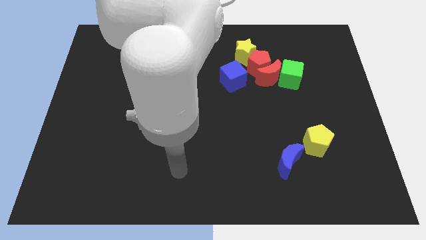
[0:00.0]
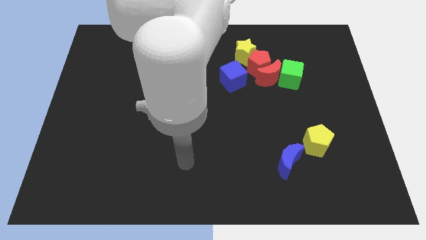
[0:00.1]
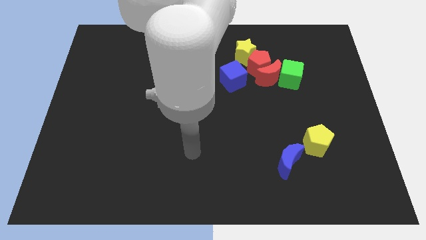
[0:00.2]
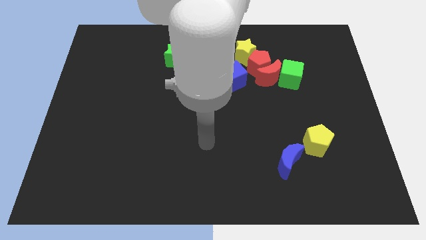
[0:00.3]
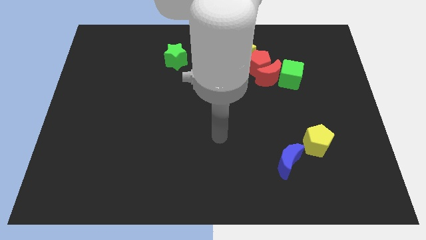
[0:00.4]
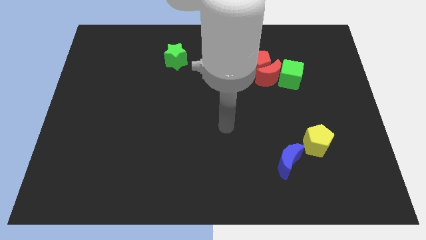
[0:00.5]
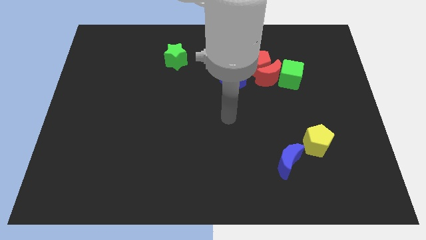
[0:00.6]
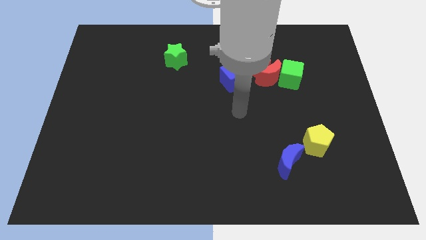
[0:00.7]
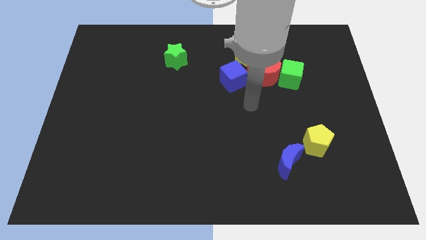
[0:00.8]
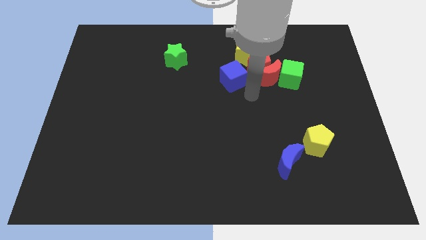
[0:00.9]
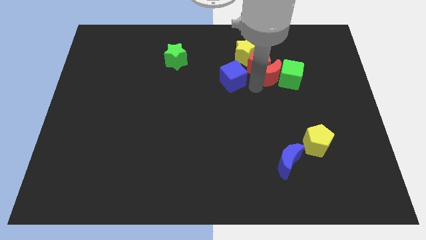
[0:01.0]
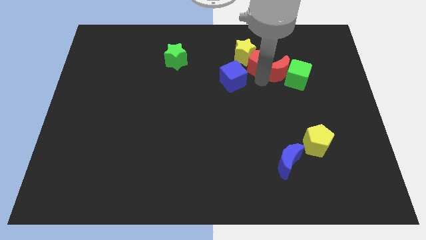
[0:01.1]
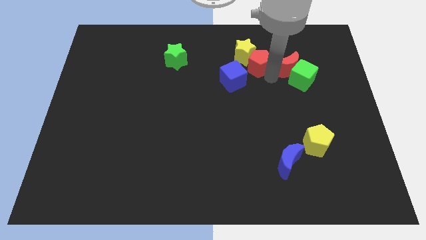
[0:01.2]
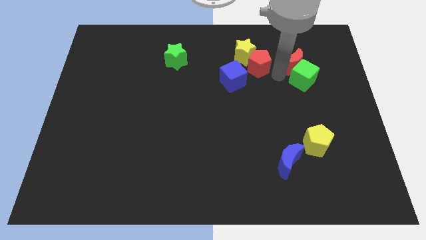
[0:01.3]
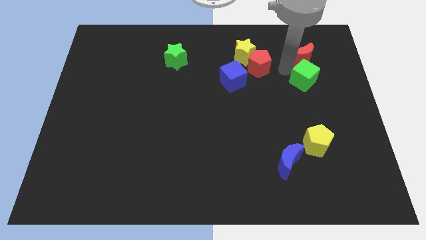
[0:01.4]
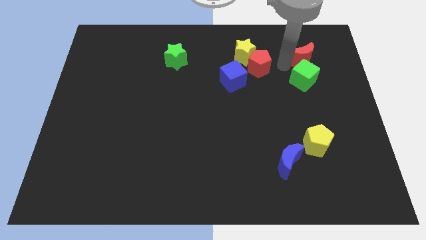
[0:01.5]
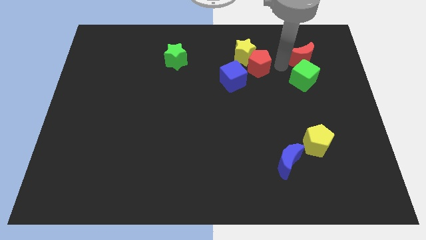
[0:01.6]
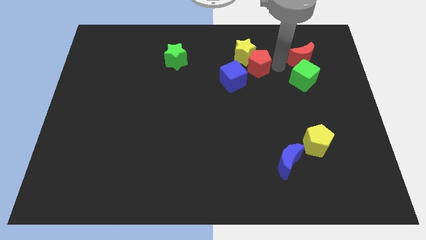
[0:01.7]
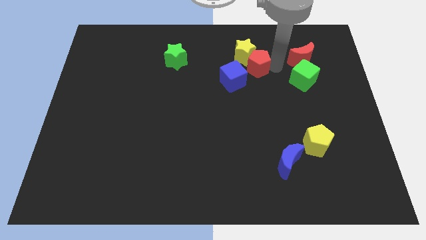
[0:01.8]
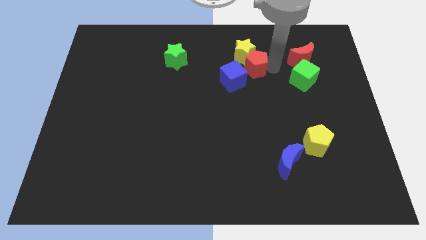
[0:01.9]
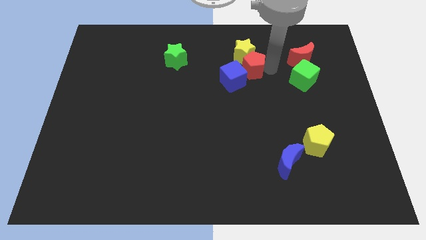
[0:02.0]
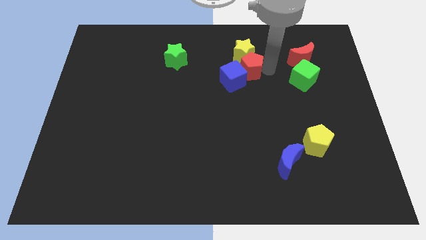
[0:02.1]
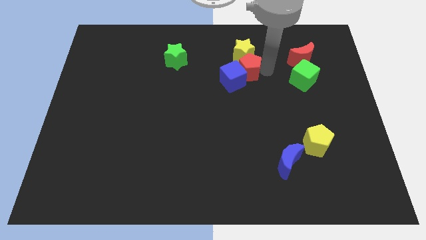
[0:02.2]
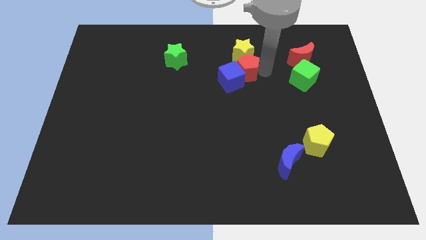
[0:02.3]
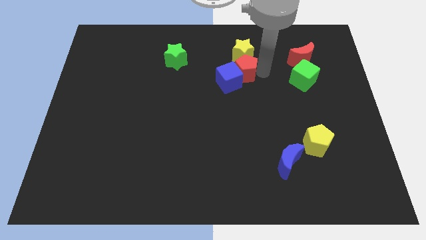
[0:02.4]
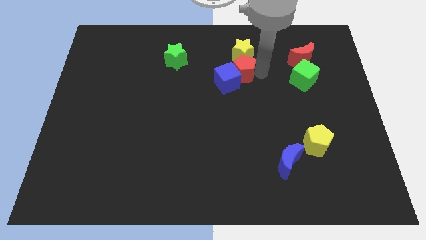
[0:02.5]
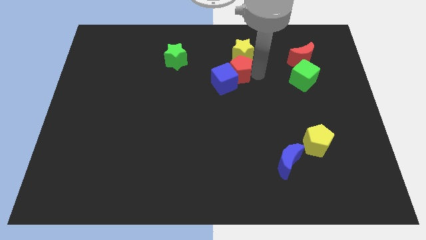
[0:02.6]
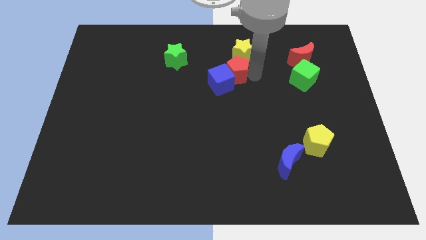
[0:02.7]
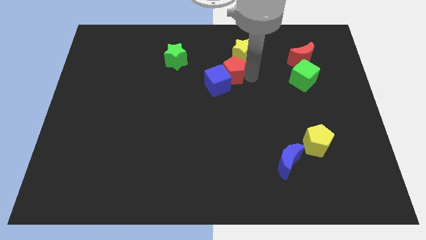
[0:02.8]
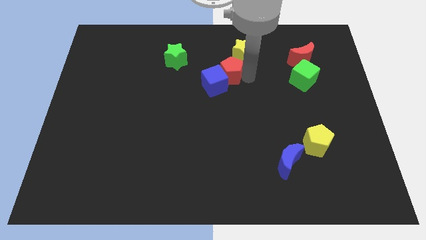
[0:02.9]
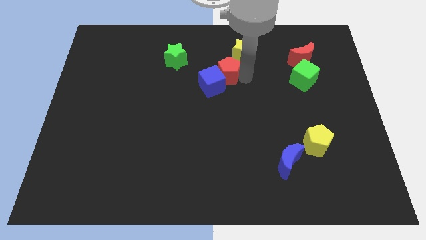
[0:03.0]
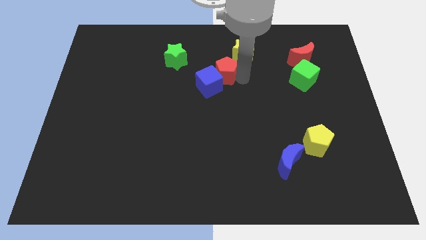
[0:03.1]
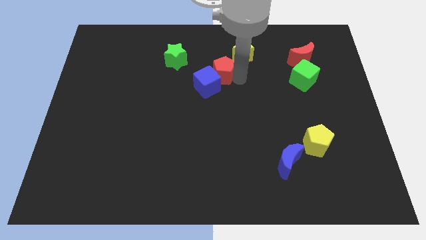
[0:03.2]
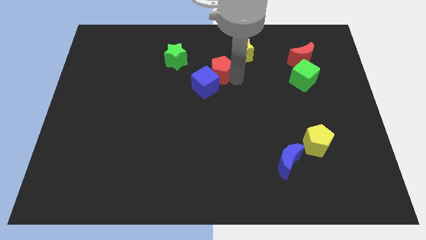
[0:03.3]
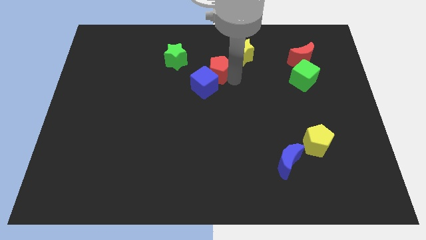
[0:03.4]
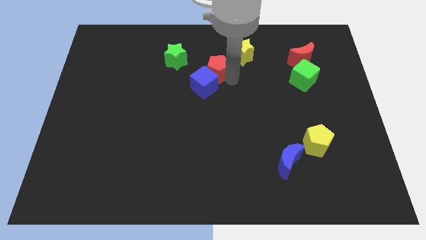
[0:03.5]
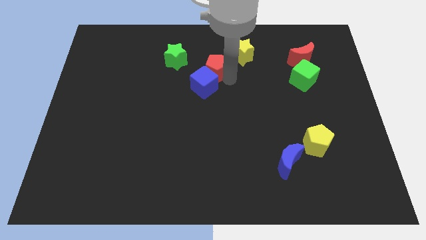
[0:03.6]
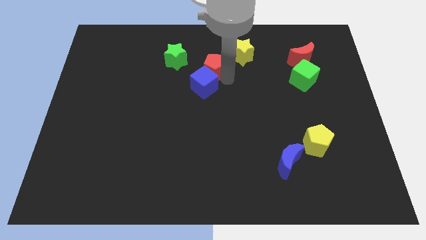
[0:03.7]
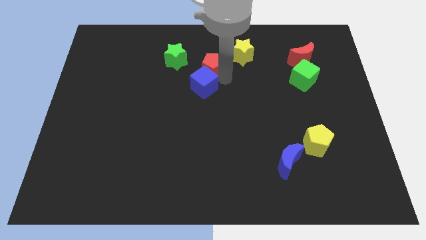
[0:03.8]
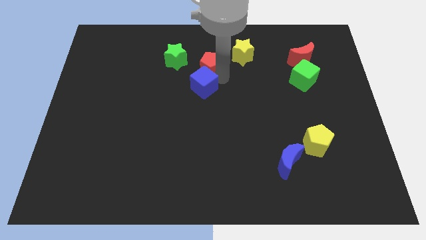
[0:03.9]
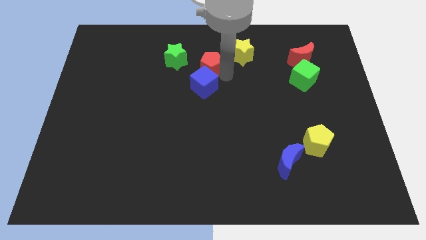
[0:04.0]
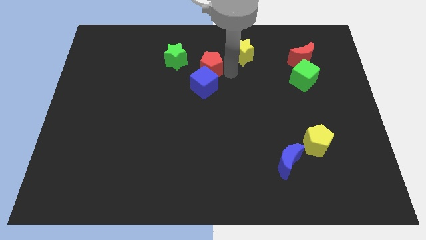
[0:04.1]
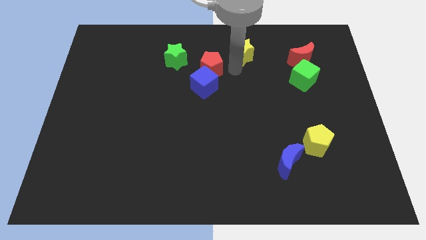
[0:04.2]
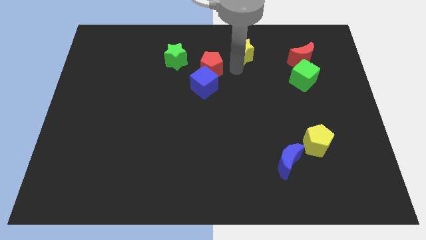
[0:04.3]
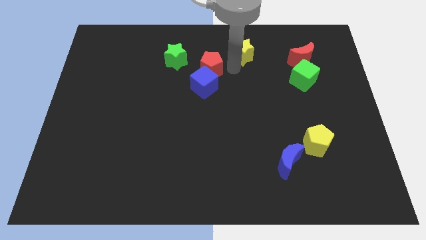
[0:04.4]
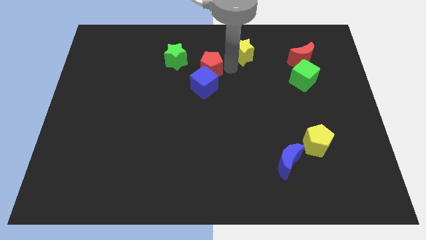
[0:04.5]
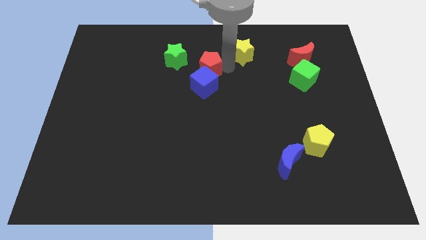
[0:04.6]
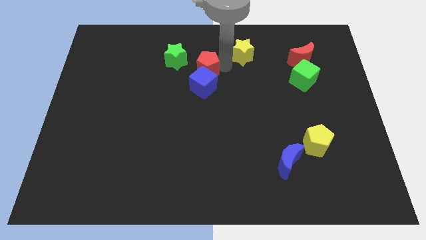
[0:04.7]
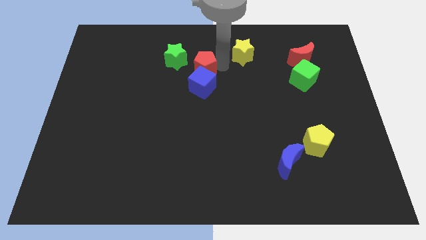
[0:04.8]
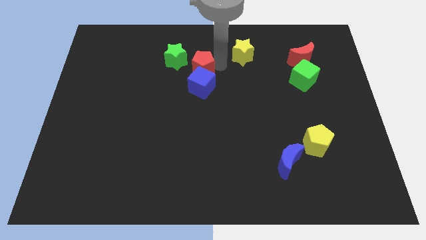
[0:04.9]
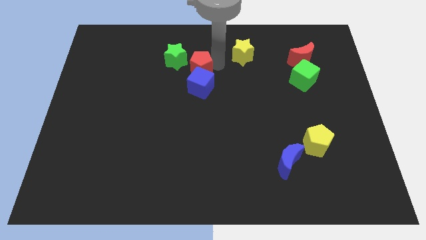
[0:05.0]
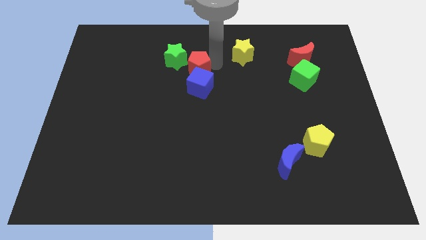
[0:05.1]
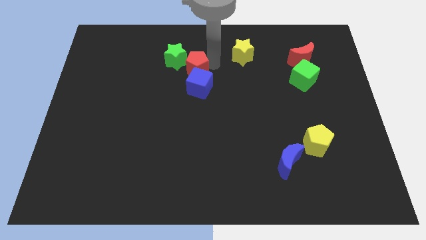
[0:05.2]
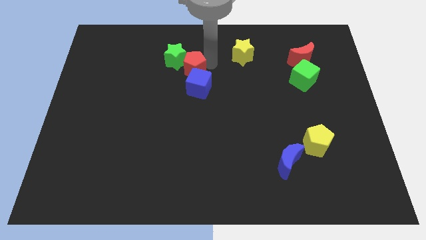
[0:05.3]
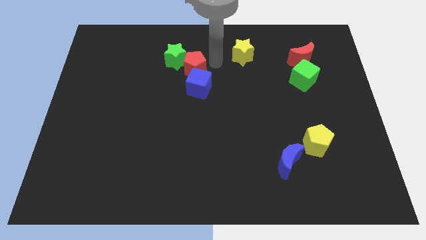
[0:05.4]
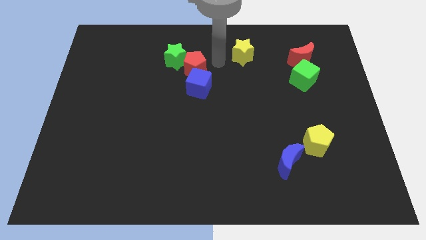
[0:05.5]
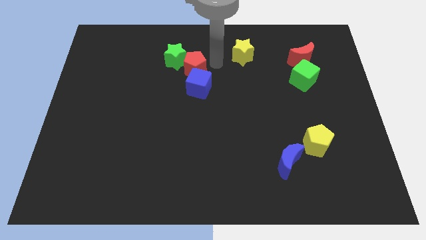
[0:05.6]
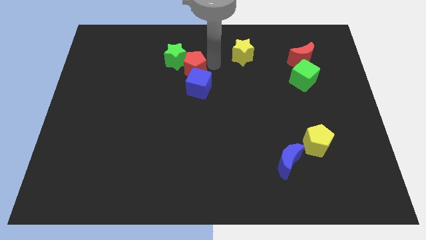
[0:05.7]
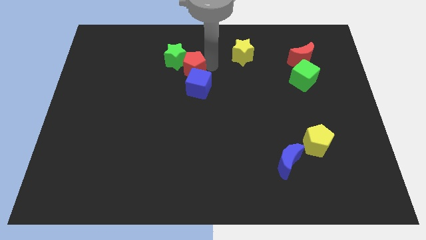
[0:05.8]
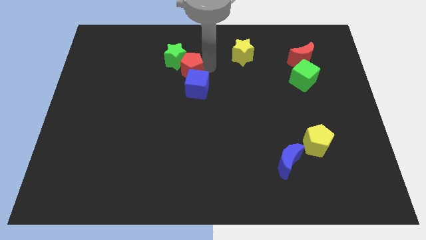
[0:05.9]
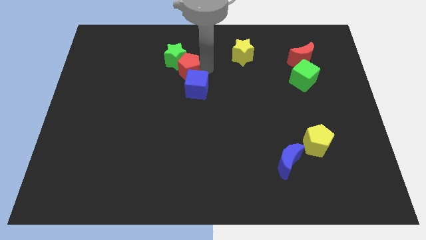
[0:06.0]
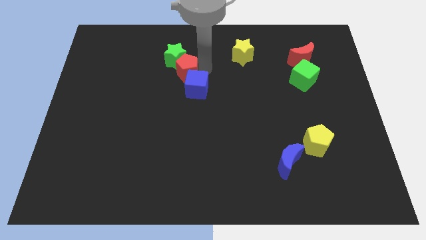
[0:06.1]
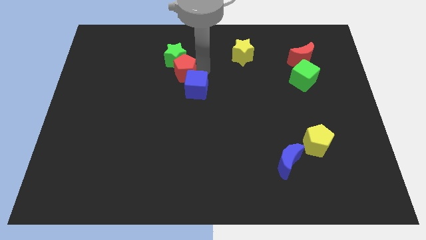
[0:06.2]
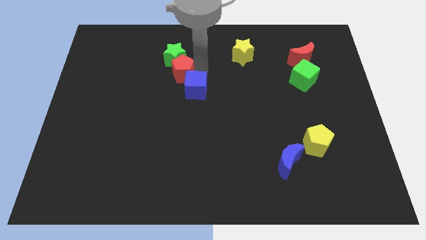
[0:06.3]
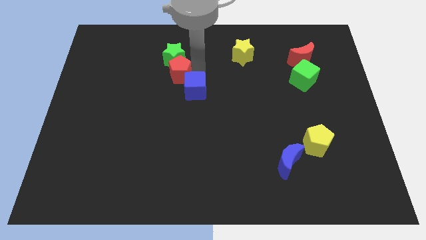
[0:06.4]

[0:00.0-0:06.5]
slide the red pentagon left

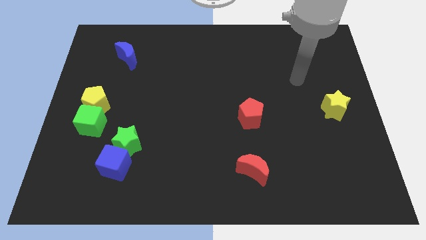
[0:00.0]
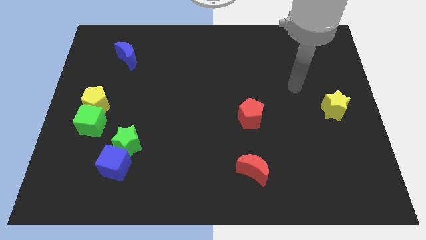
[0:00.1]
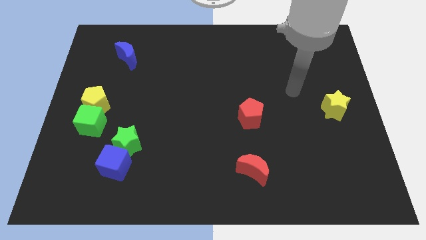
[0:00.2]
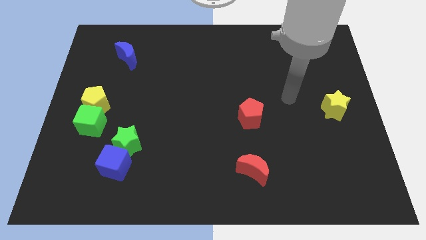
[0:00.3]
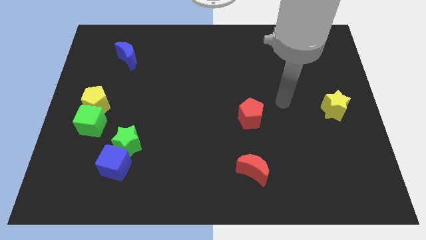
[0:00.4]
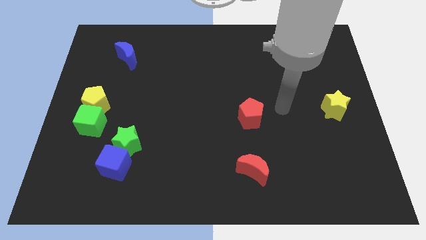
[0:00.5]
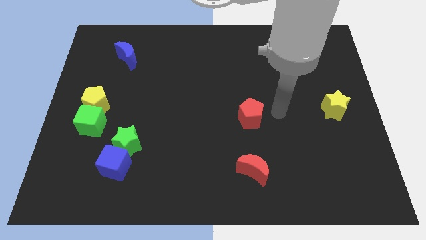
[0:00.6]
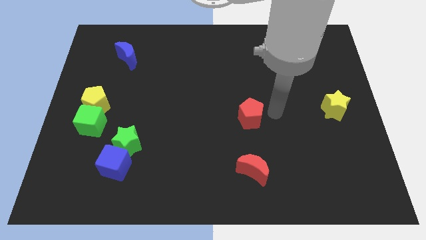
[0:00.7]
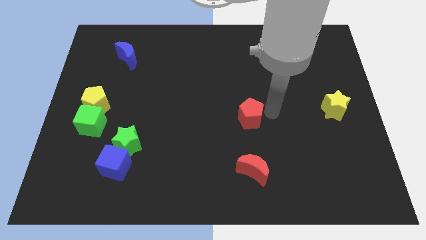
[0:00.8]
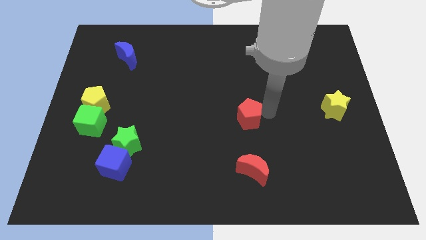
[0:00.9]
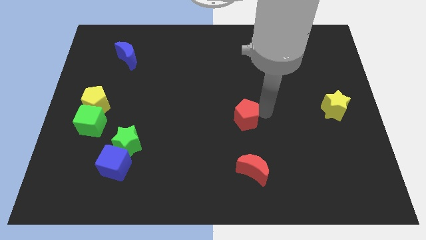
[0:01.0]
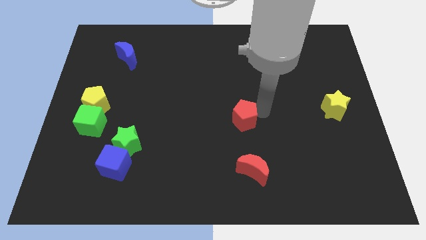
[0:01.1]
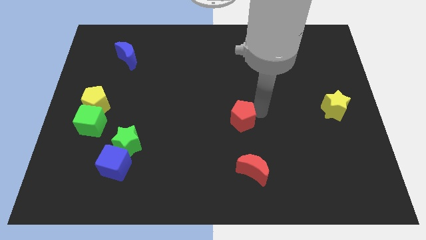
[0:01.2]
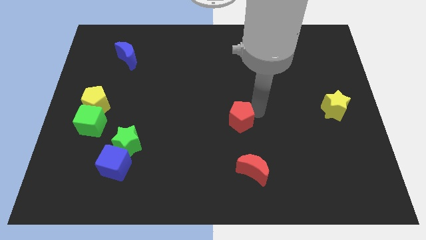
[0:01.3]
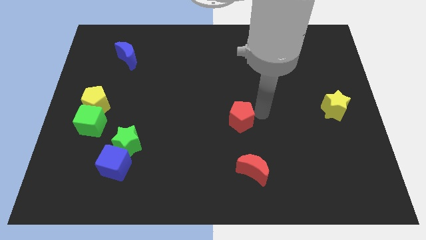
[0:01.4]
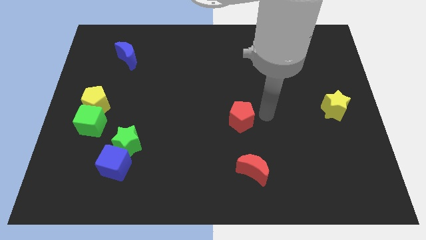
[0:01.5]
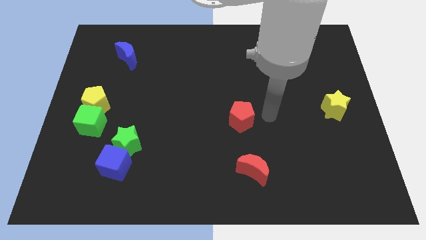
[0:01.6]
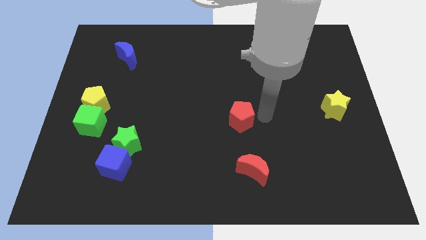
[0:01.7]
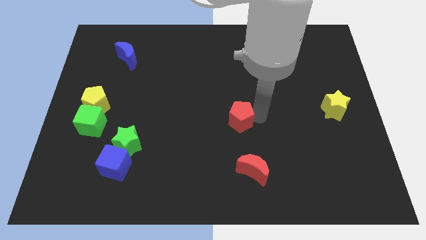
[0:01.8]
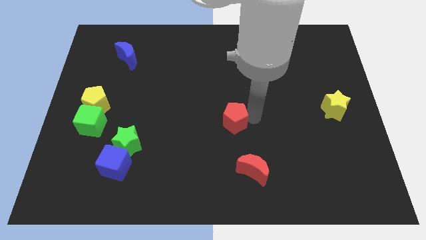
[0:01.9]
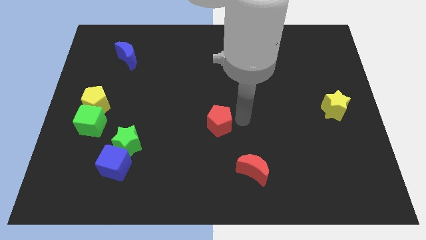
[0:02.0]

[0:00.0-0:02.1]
slightly move the red pentagon to the left
